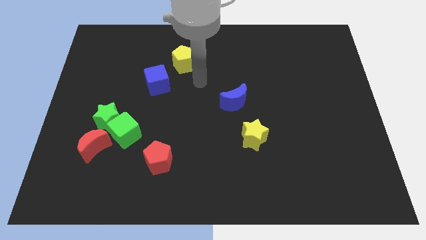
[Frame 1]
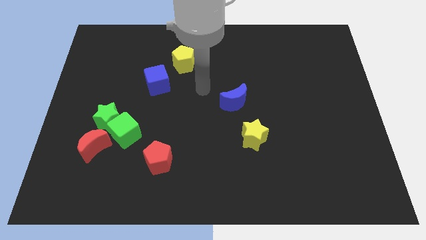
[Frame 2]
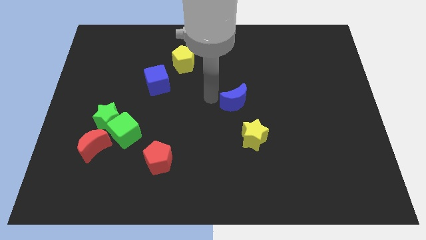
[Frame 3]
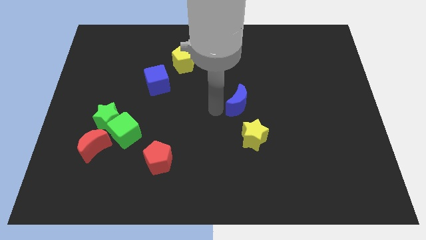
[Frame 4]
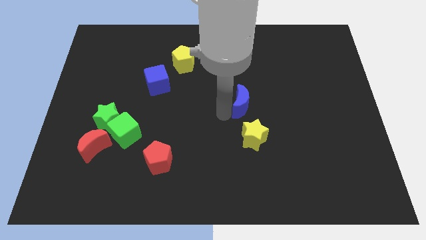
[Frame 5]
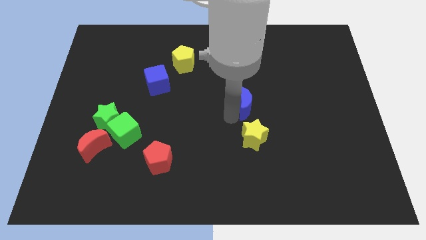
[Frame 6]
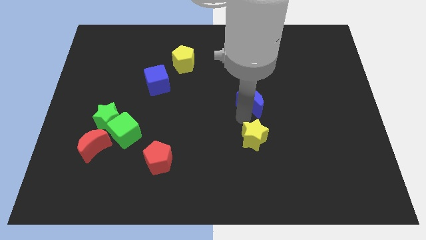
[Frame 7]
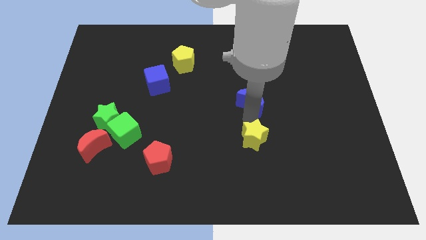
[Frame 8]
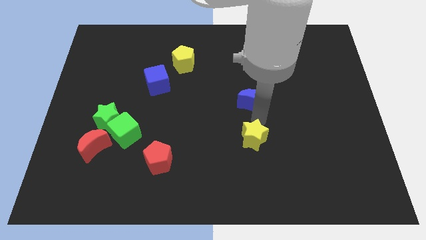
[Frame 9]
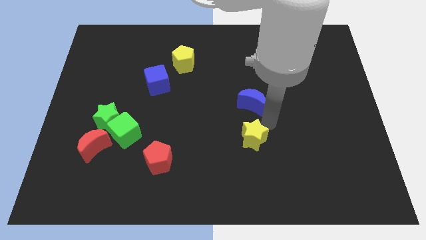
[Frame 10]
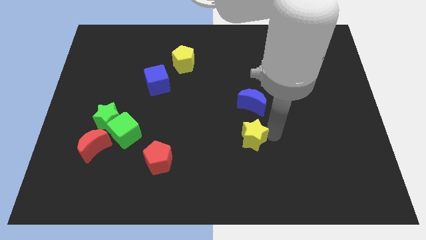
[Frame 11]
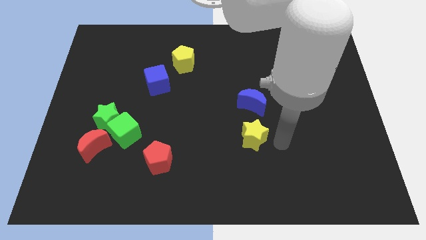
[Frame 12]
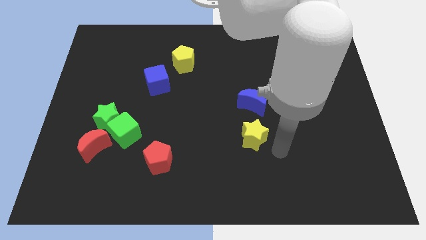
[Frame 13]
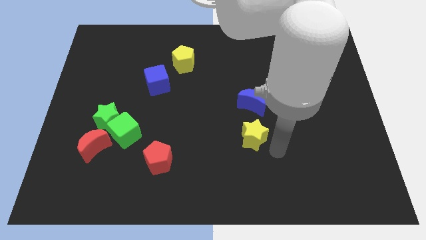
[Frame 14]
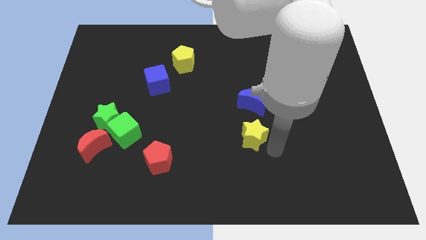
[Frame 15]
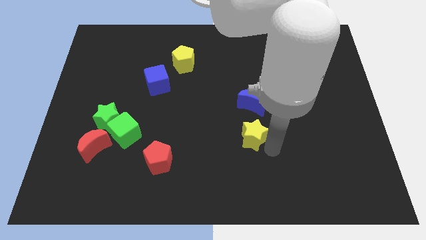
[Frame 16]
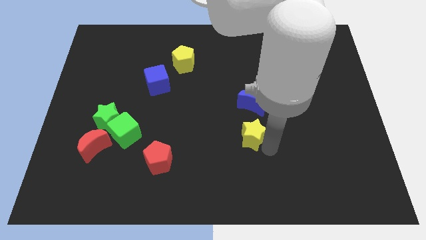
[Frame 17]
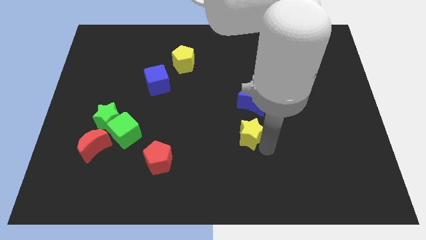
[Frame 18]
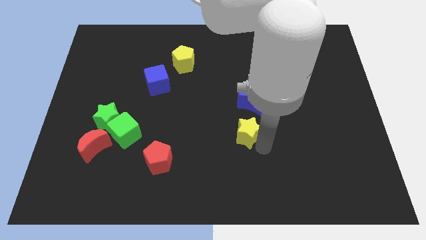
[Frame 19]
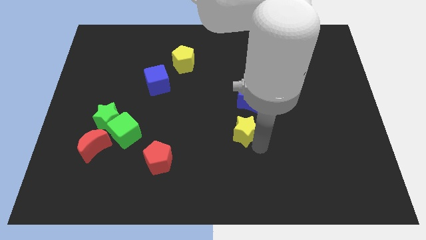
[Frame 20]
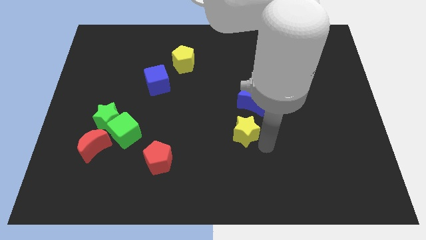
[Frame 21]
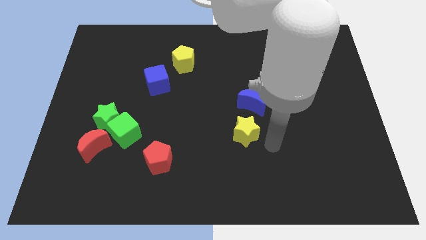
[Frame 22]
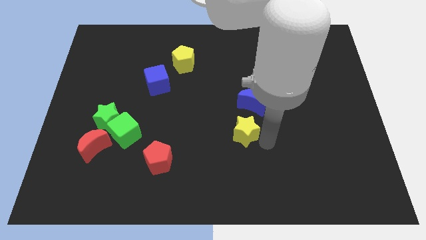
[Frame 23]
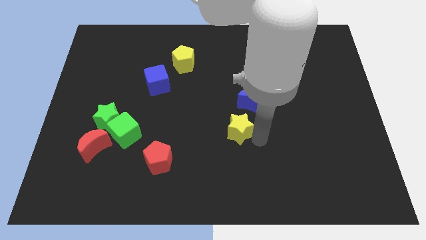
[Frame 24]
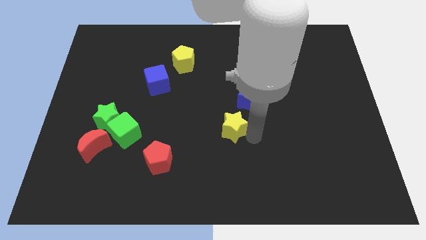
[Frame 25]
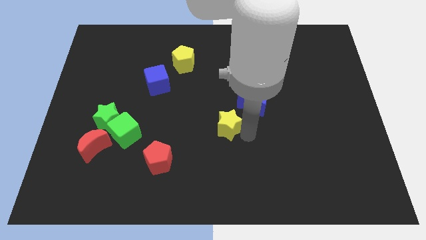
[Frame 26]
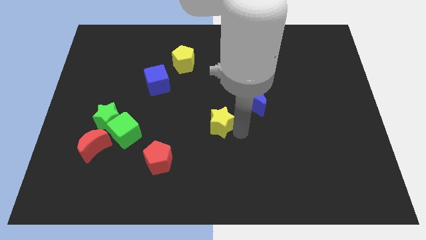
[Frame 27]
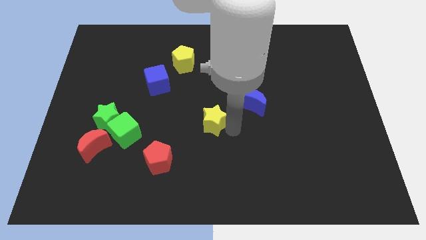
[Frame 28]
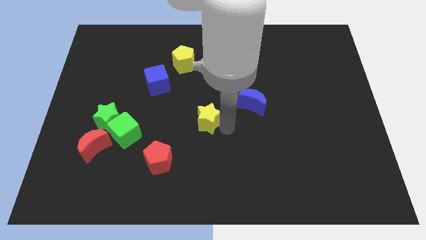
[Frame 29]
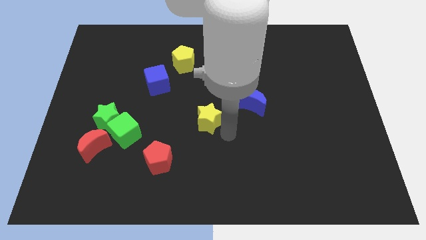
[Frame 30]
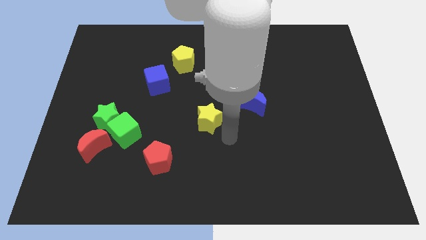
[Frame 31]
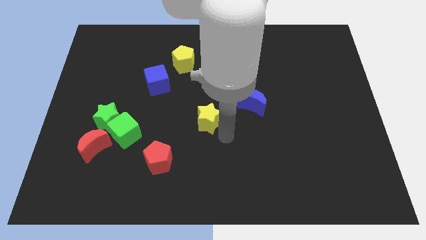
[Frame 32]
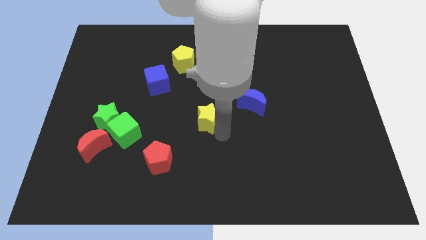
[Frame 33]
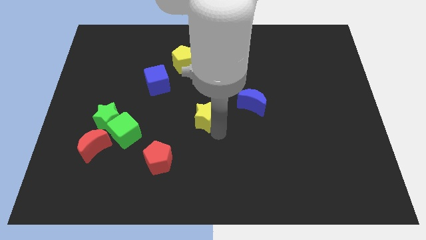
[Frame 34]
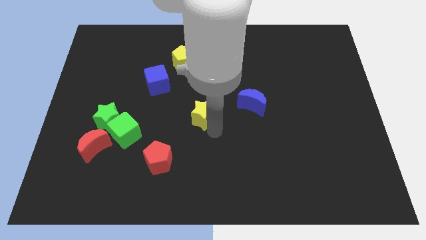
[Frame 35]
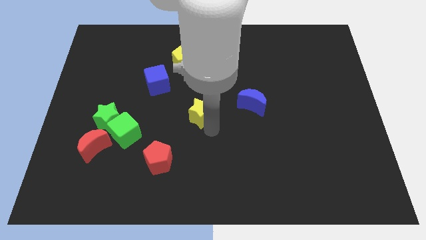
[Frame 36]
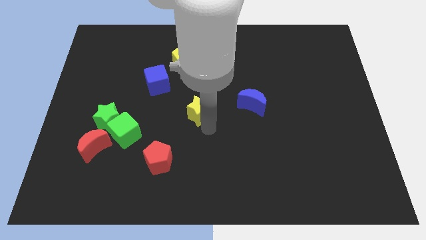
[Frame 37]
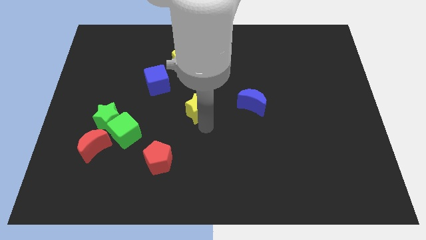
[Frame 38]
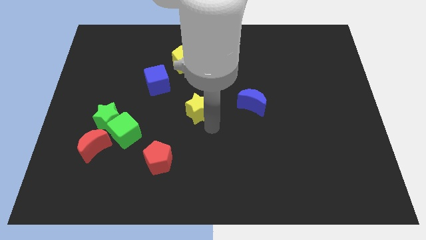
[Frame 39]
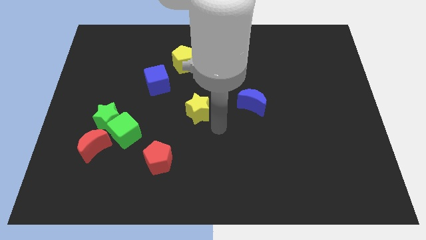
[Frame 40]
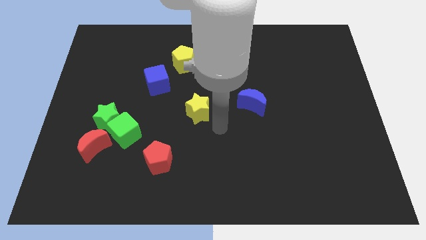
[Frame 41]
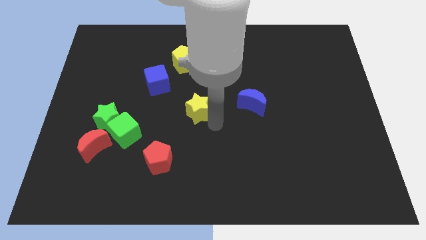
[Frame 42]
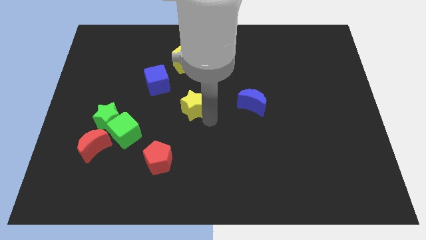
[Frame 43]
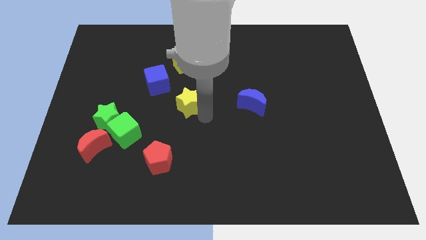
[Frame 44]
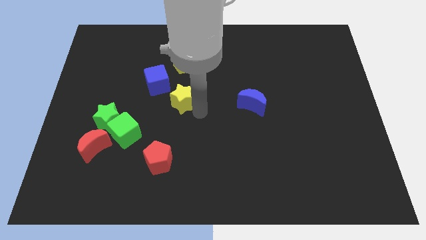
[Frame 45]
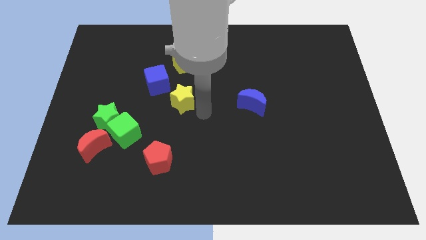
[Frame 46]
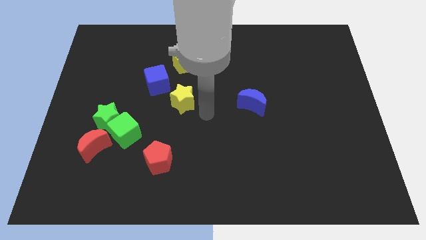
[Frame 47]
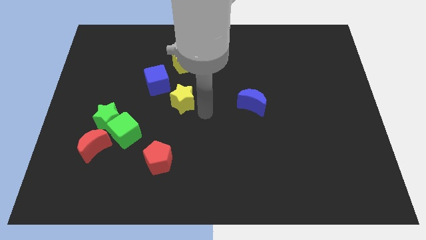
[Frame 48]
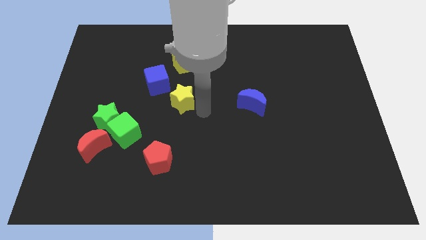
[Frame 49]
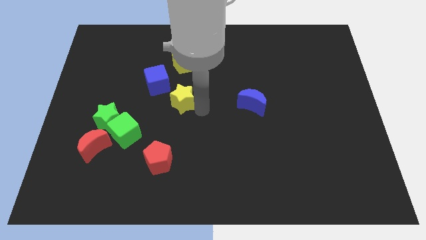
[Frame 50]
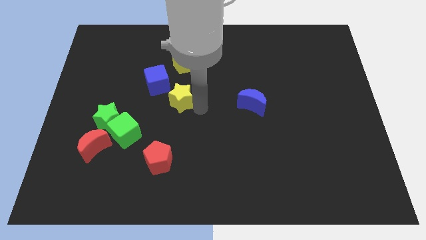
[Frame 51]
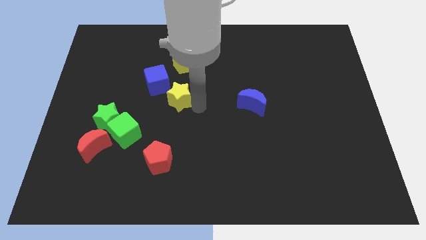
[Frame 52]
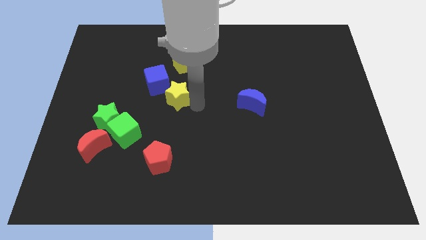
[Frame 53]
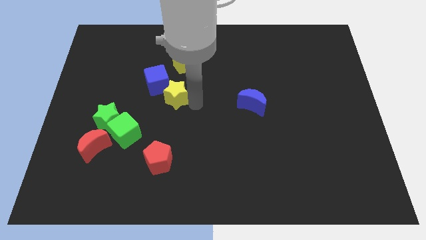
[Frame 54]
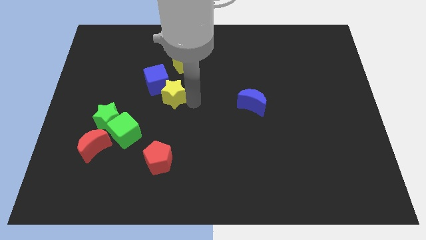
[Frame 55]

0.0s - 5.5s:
push the yellow star next to the blue cube

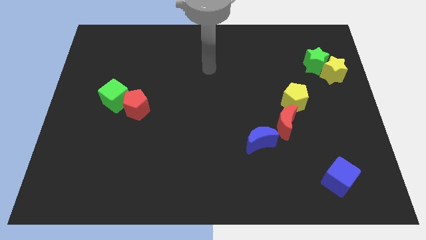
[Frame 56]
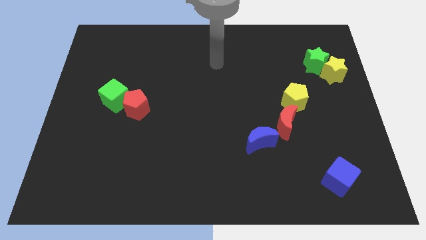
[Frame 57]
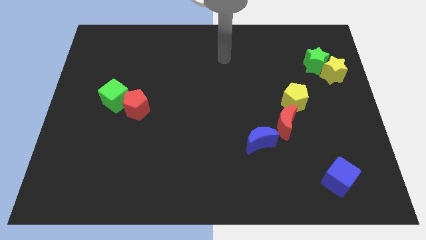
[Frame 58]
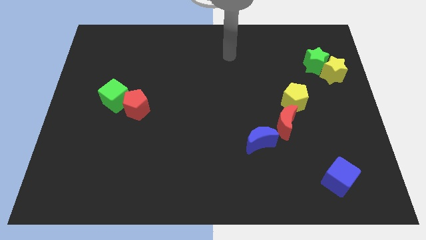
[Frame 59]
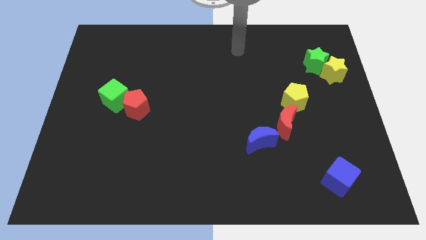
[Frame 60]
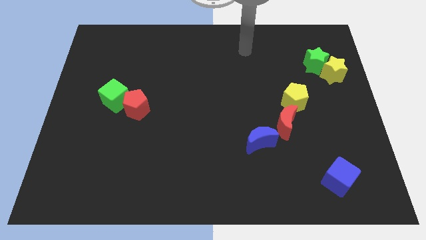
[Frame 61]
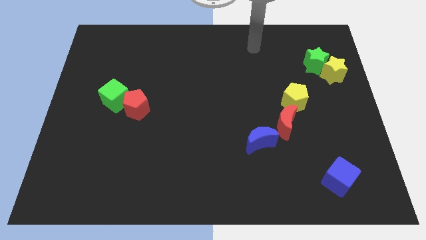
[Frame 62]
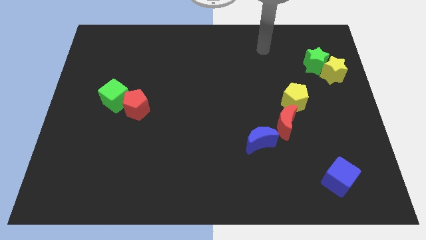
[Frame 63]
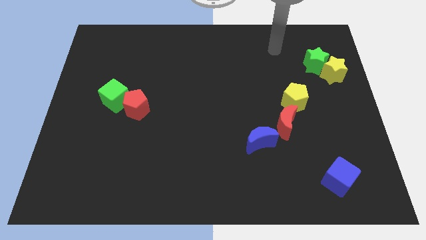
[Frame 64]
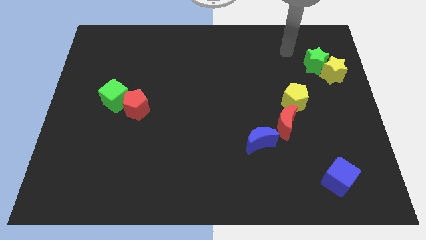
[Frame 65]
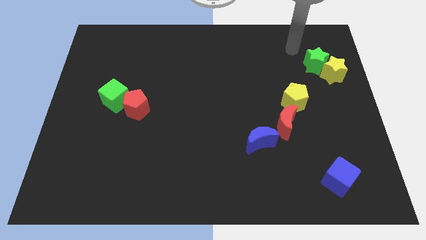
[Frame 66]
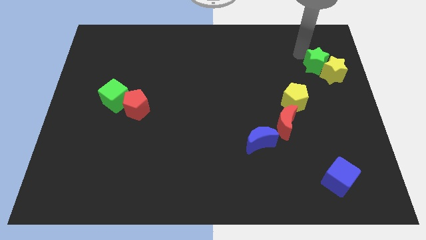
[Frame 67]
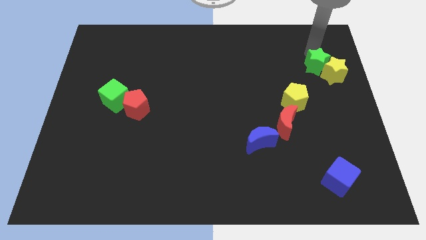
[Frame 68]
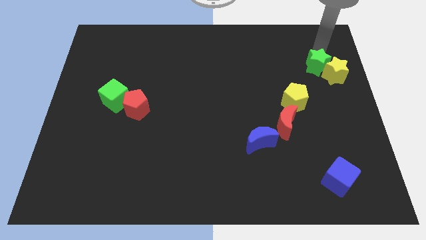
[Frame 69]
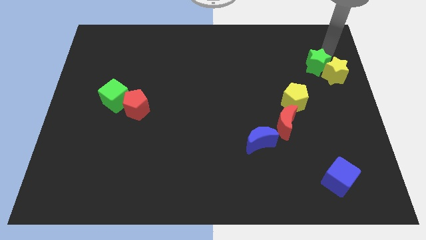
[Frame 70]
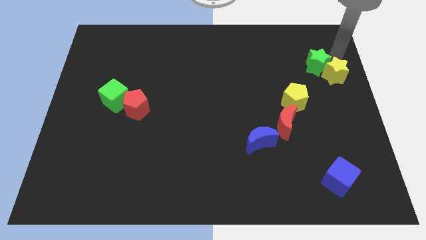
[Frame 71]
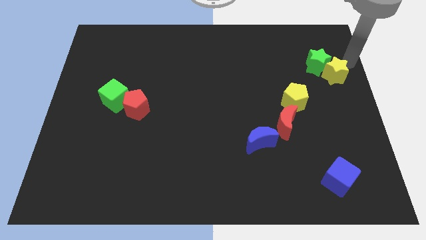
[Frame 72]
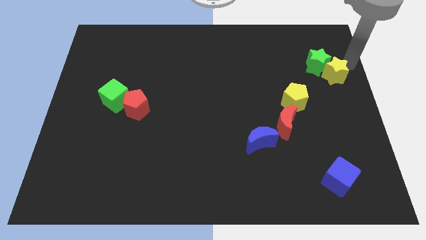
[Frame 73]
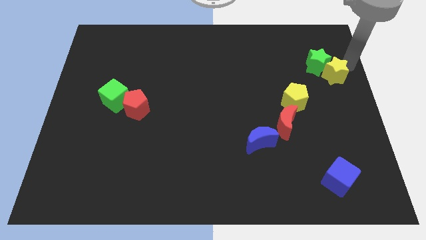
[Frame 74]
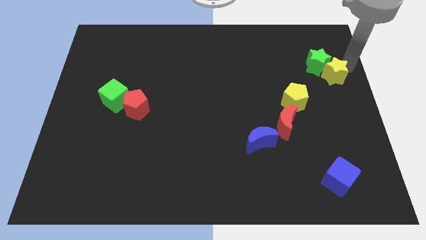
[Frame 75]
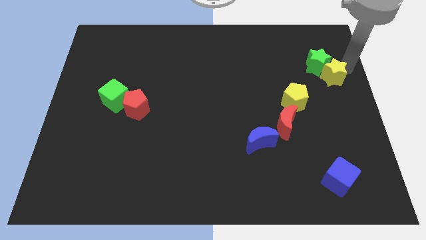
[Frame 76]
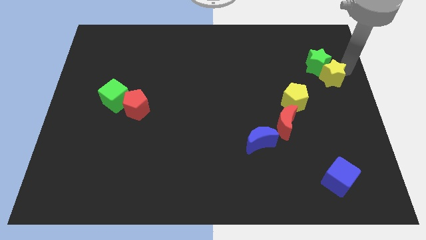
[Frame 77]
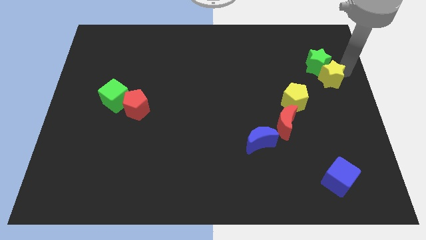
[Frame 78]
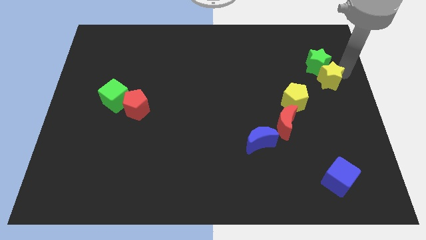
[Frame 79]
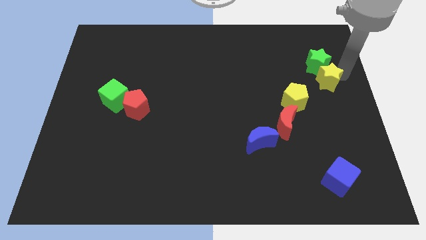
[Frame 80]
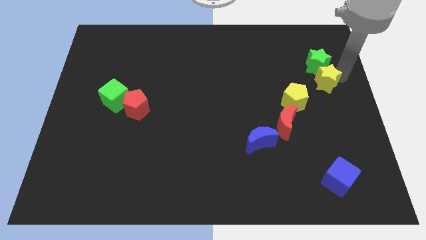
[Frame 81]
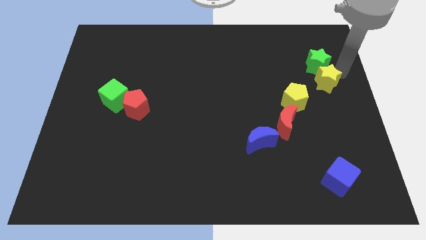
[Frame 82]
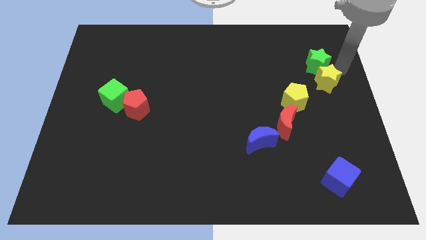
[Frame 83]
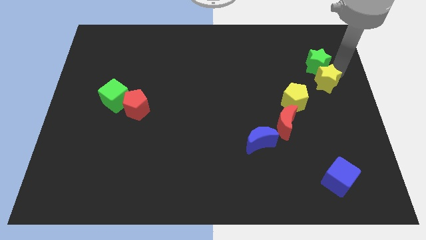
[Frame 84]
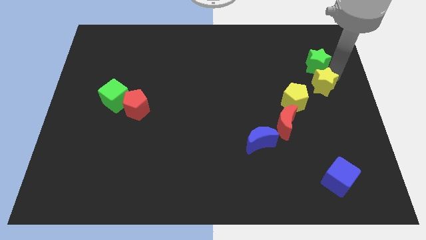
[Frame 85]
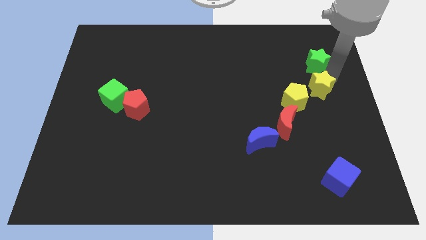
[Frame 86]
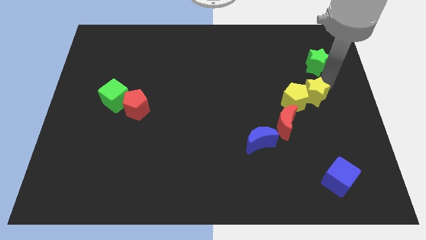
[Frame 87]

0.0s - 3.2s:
slide the yellow star next to the yellow pentagon
